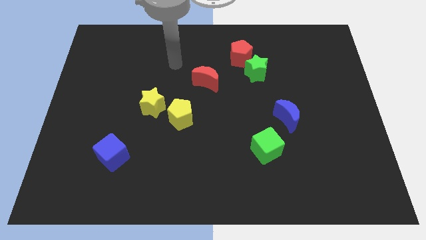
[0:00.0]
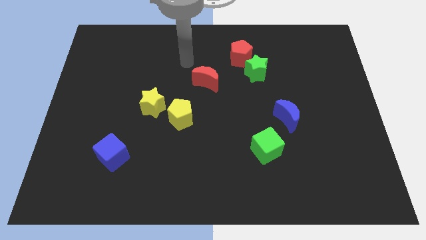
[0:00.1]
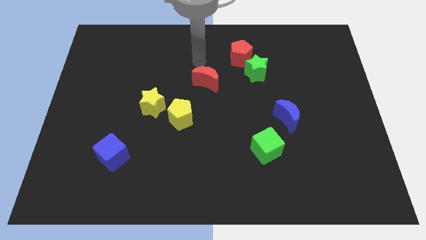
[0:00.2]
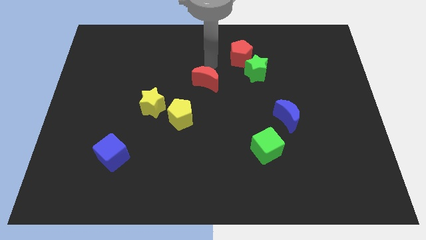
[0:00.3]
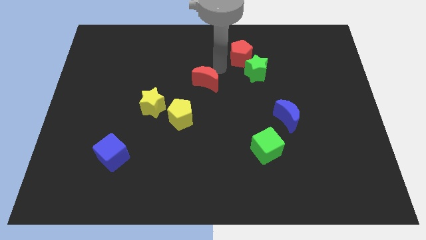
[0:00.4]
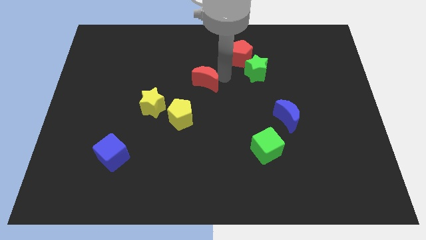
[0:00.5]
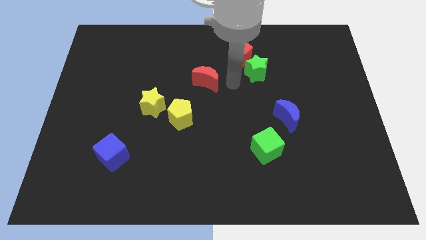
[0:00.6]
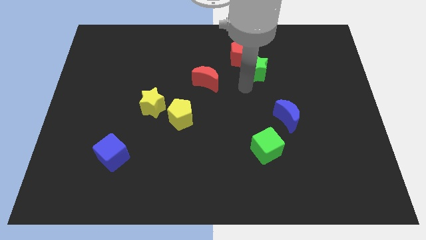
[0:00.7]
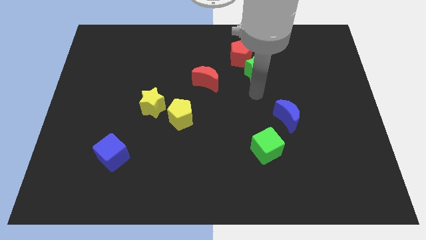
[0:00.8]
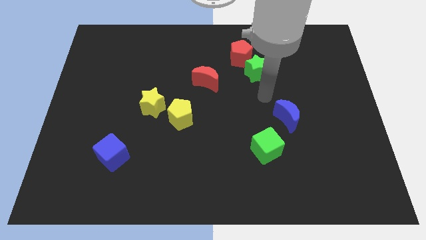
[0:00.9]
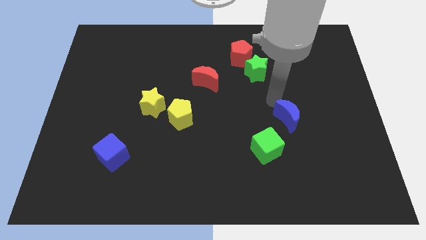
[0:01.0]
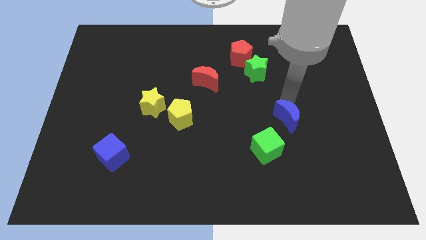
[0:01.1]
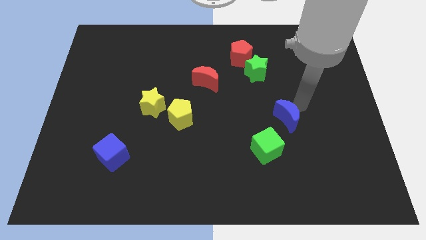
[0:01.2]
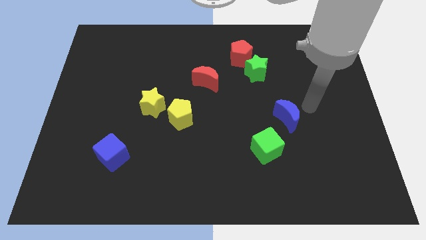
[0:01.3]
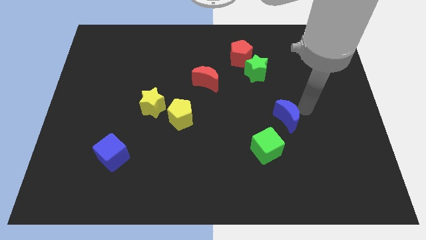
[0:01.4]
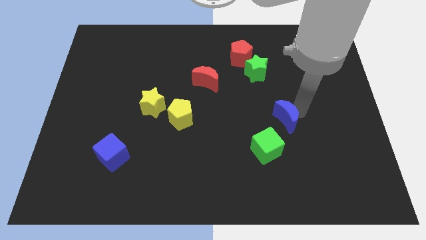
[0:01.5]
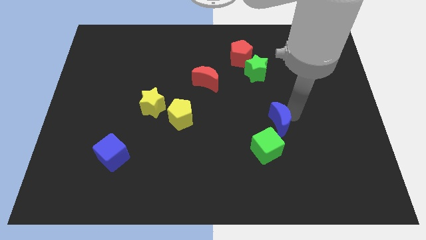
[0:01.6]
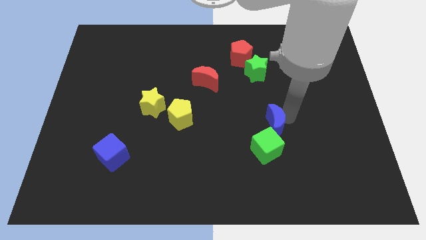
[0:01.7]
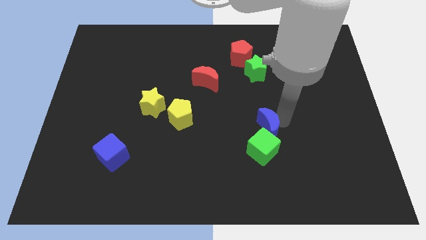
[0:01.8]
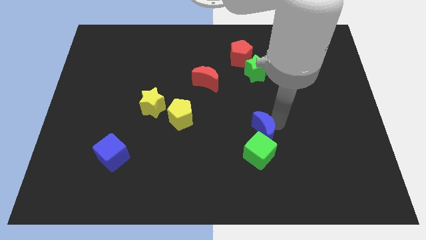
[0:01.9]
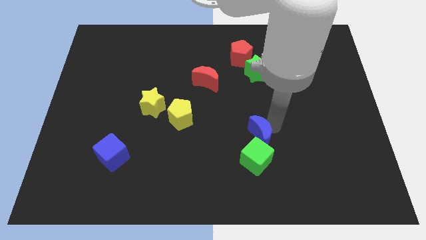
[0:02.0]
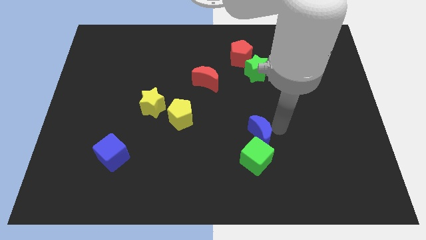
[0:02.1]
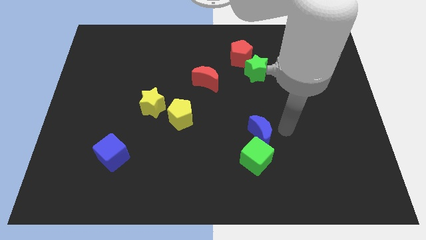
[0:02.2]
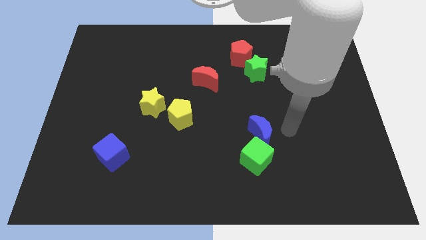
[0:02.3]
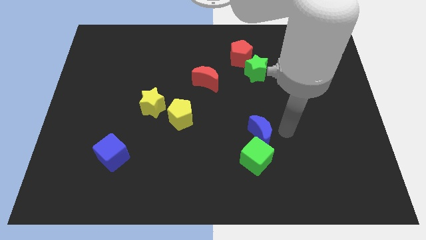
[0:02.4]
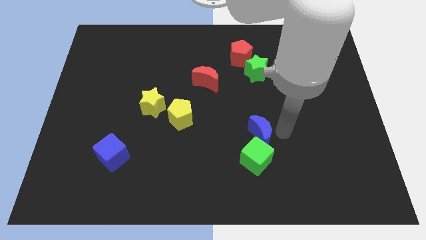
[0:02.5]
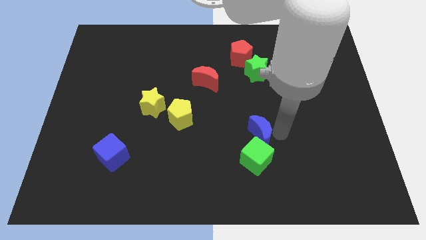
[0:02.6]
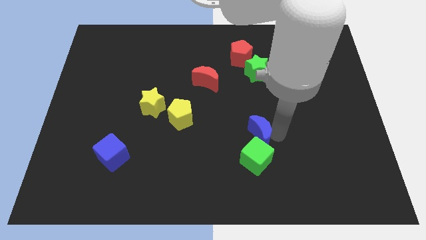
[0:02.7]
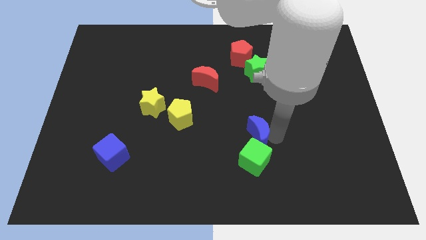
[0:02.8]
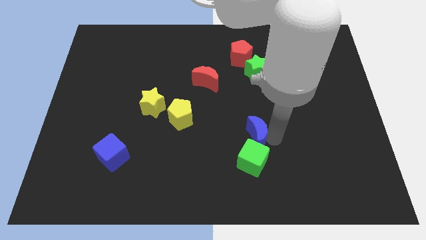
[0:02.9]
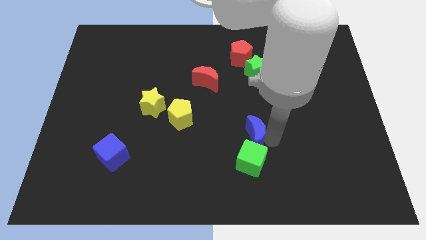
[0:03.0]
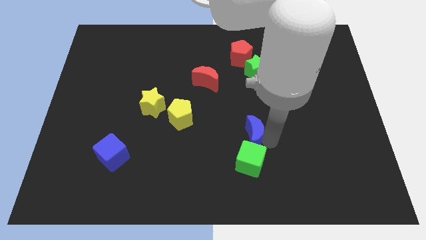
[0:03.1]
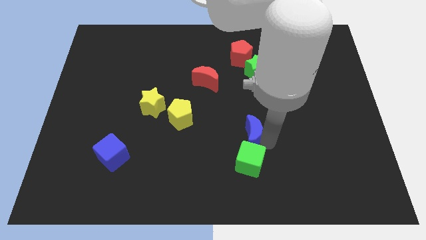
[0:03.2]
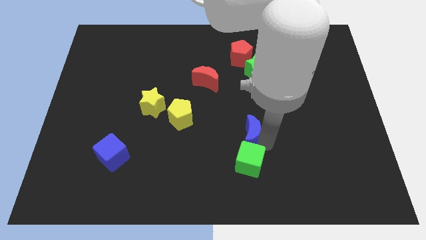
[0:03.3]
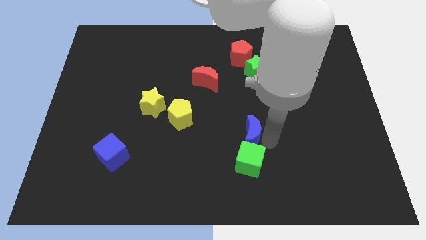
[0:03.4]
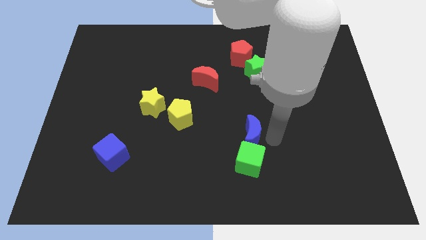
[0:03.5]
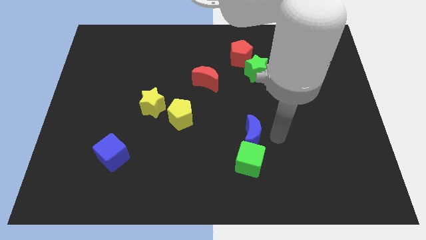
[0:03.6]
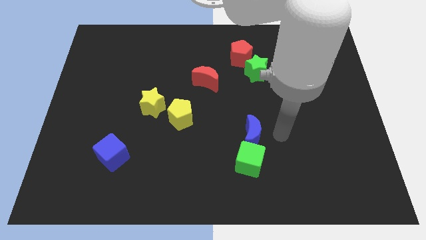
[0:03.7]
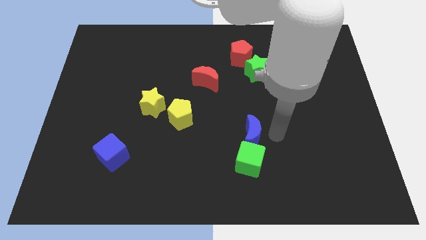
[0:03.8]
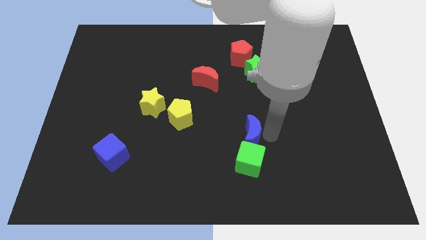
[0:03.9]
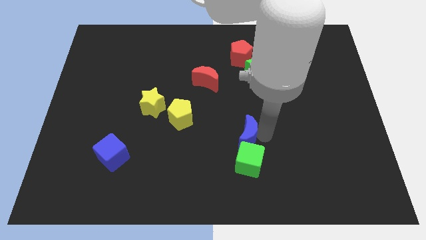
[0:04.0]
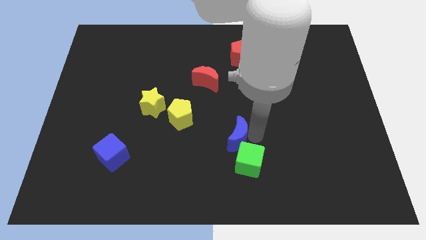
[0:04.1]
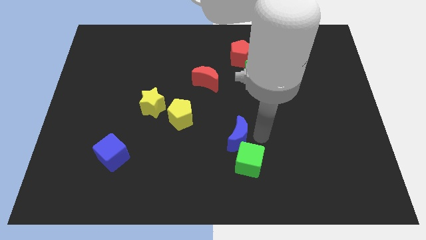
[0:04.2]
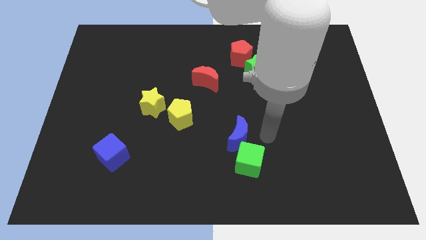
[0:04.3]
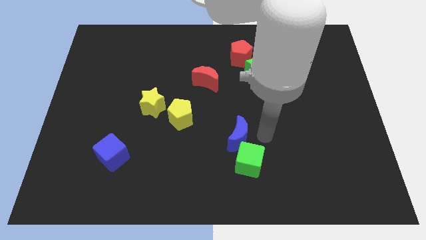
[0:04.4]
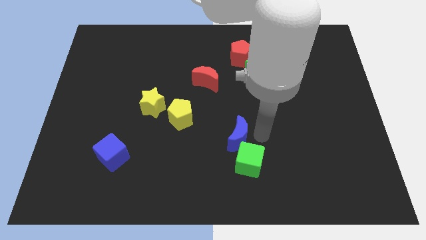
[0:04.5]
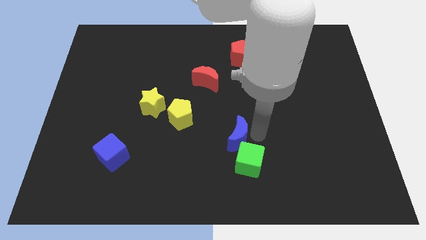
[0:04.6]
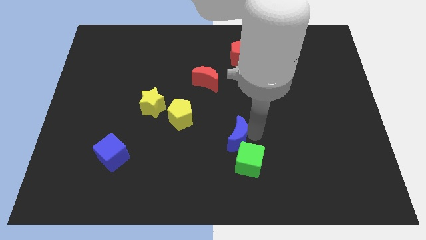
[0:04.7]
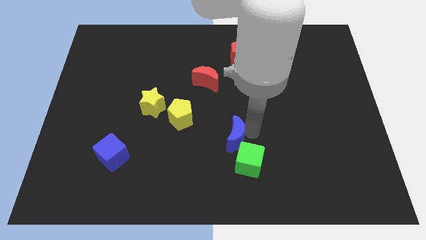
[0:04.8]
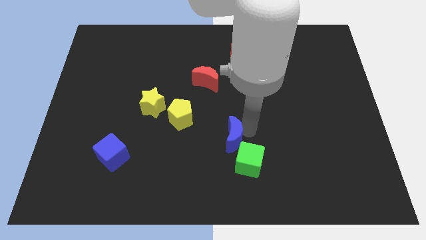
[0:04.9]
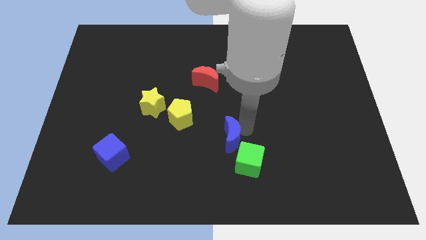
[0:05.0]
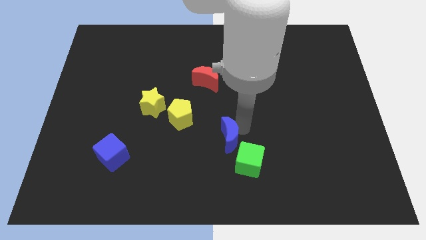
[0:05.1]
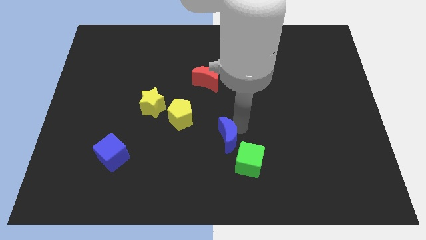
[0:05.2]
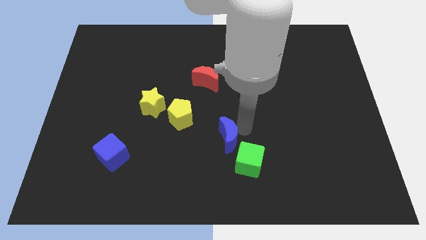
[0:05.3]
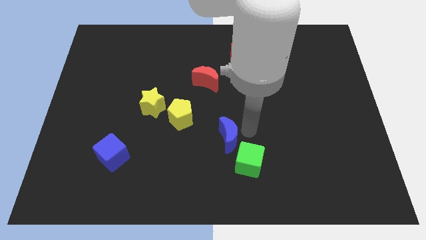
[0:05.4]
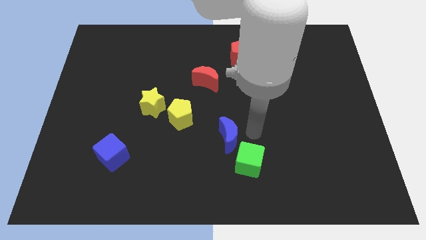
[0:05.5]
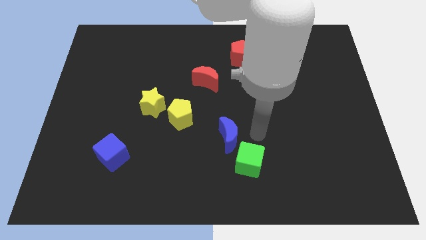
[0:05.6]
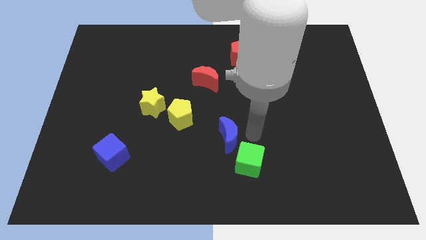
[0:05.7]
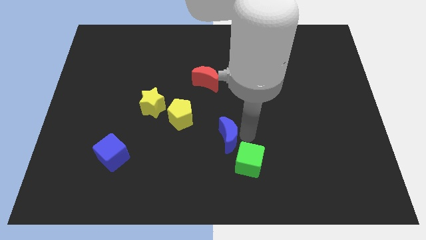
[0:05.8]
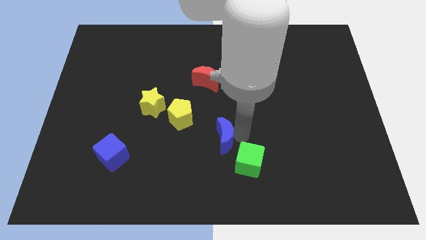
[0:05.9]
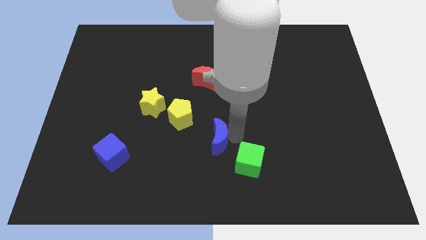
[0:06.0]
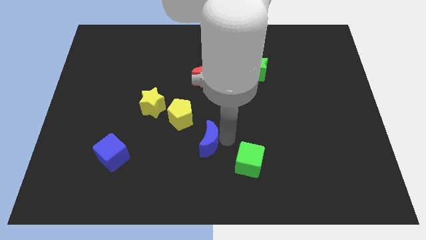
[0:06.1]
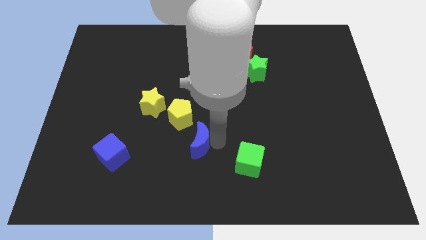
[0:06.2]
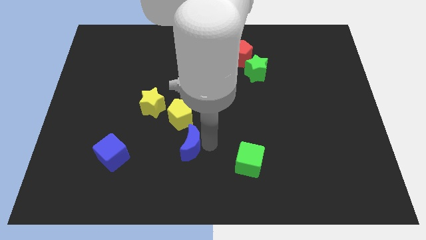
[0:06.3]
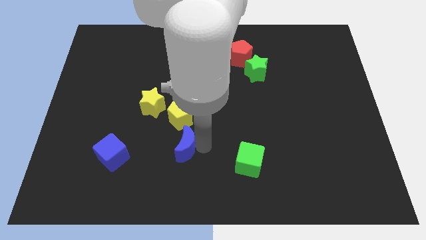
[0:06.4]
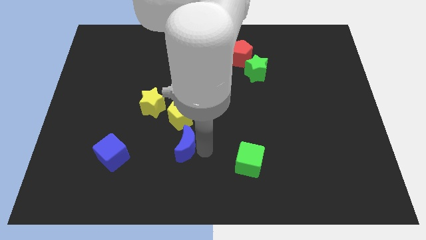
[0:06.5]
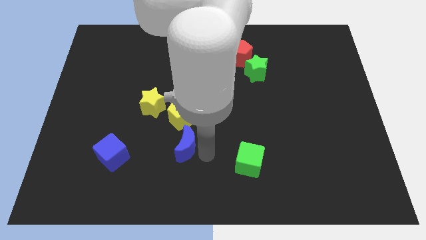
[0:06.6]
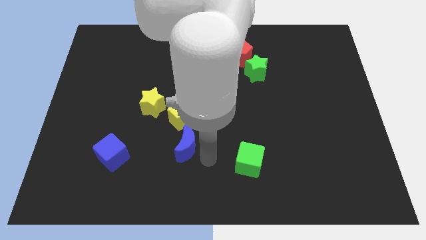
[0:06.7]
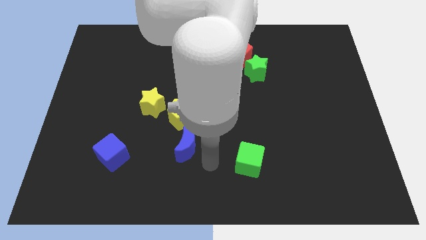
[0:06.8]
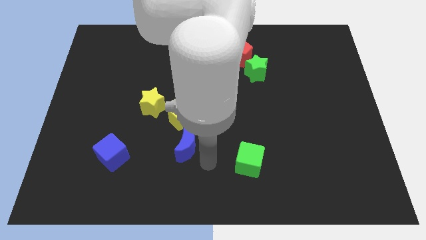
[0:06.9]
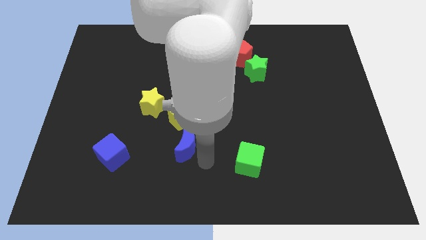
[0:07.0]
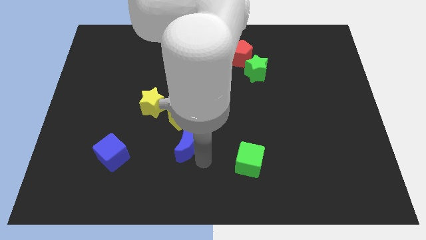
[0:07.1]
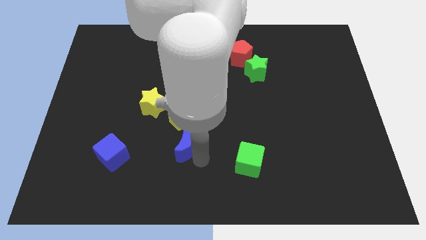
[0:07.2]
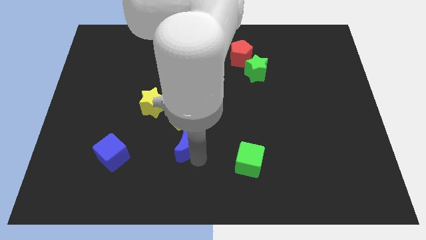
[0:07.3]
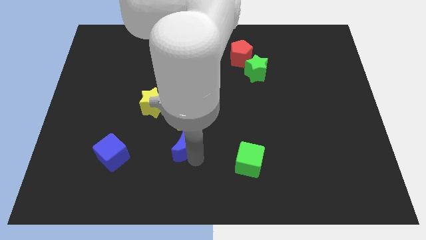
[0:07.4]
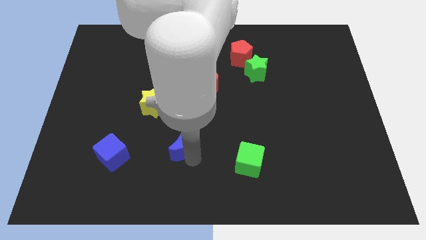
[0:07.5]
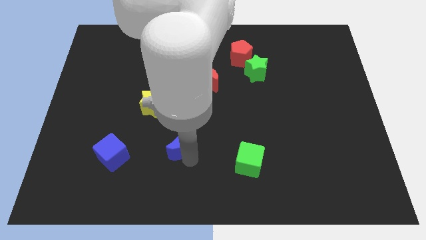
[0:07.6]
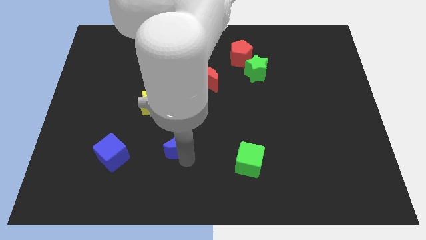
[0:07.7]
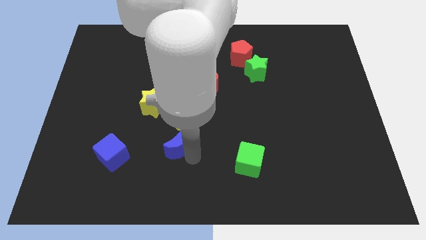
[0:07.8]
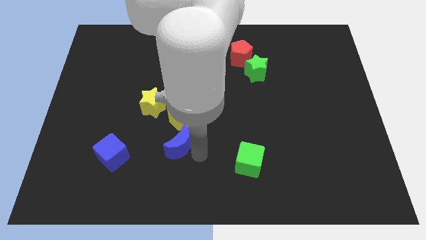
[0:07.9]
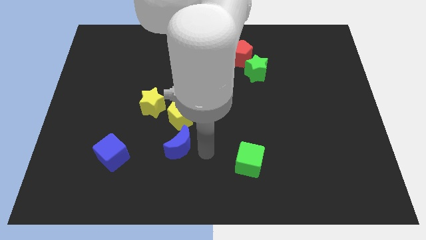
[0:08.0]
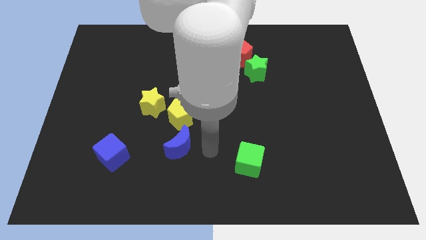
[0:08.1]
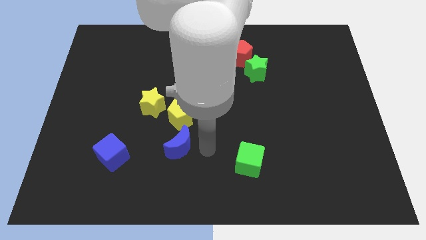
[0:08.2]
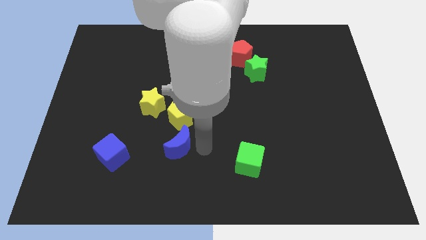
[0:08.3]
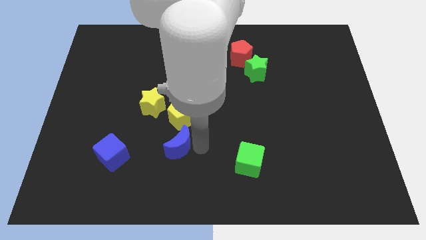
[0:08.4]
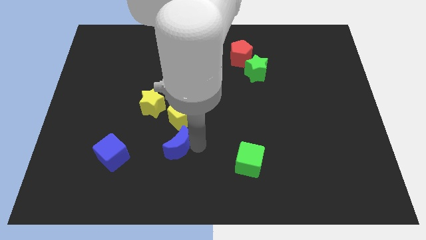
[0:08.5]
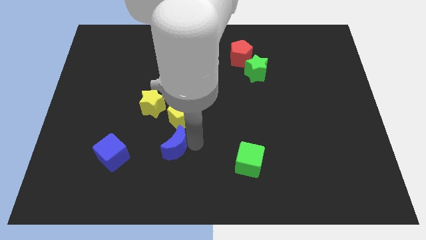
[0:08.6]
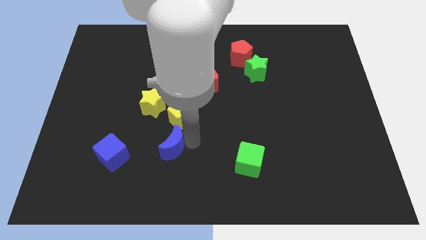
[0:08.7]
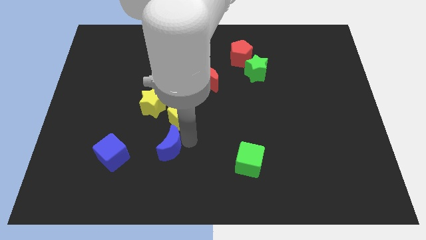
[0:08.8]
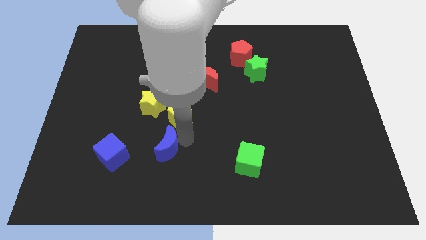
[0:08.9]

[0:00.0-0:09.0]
move the blue moon to the bottom of the yellow star
